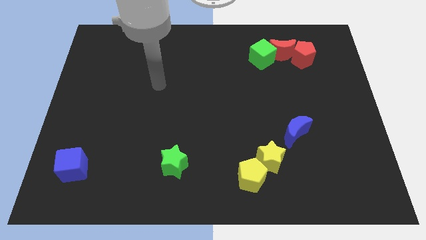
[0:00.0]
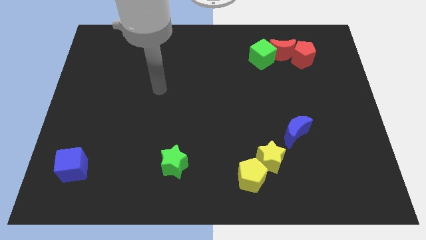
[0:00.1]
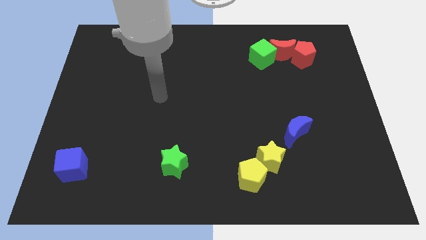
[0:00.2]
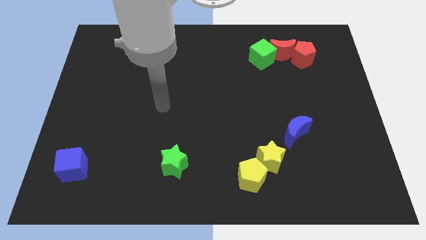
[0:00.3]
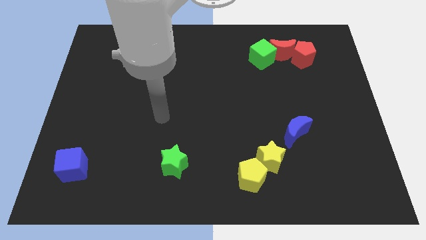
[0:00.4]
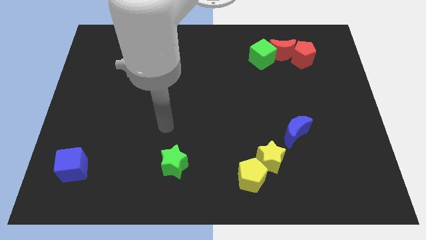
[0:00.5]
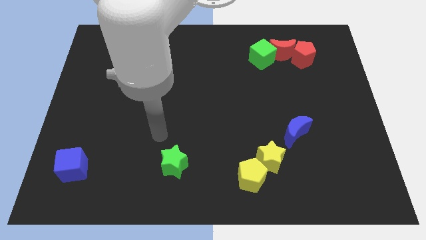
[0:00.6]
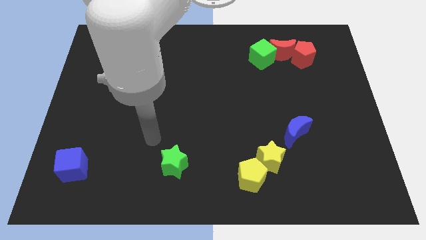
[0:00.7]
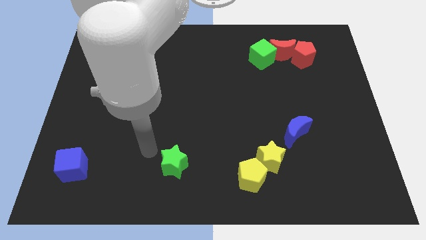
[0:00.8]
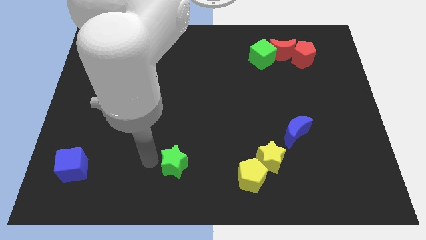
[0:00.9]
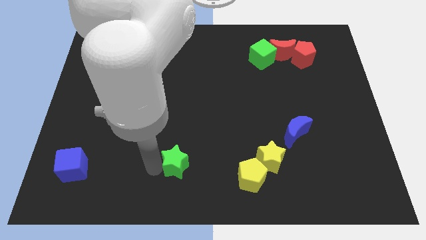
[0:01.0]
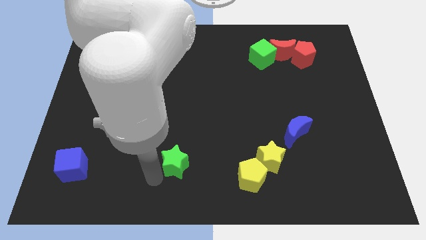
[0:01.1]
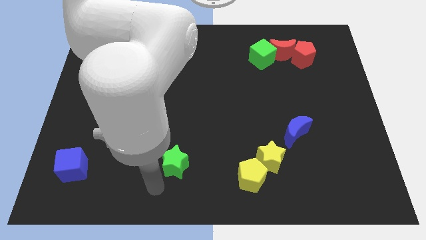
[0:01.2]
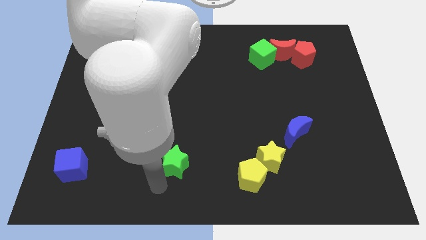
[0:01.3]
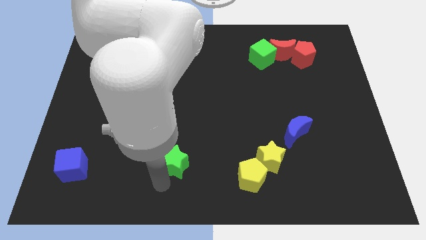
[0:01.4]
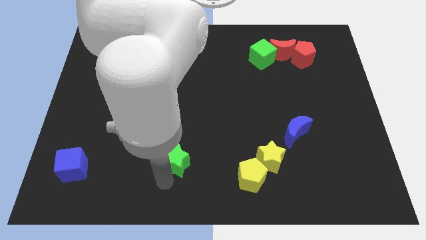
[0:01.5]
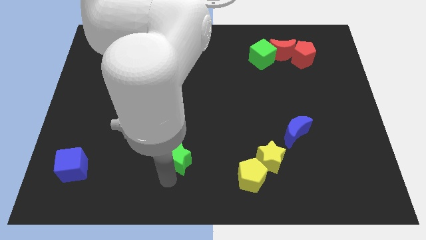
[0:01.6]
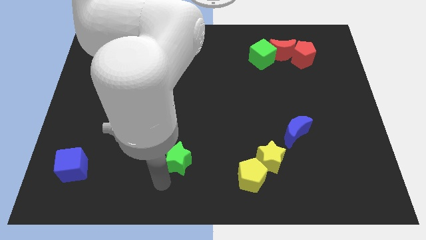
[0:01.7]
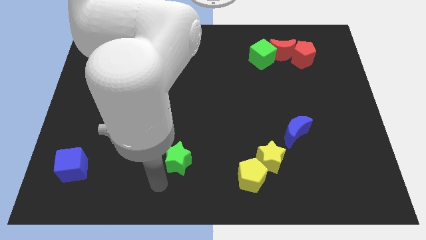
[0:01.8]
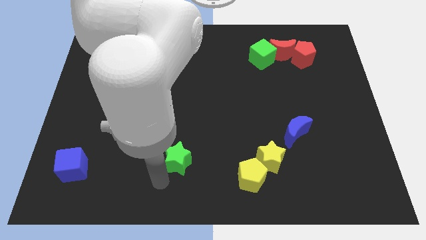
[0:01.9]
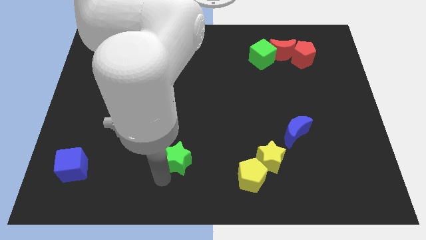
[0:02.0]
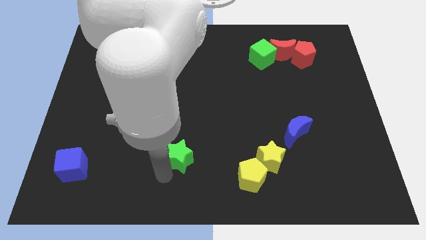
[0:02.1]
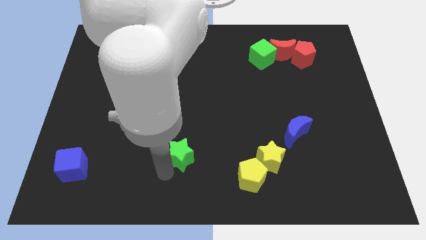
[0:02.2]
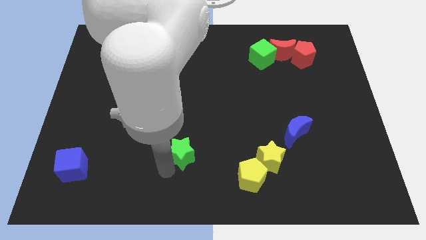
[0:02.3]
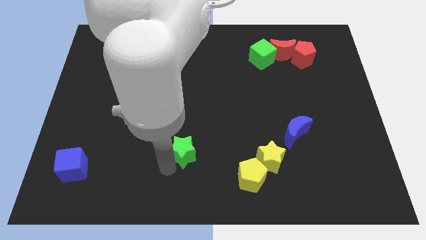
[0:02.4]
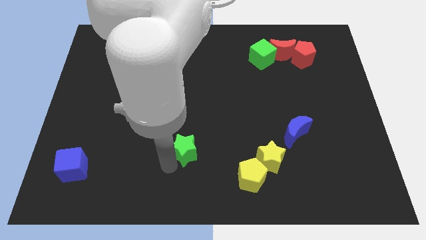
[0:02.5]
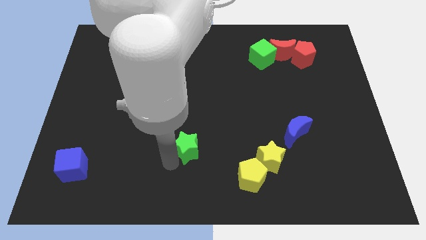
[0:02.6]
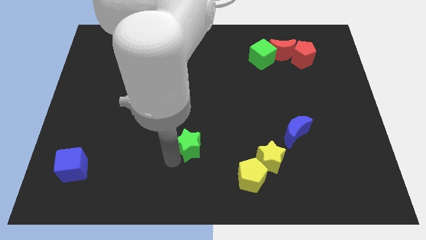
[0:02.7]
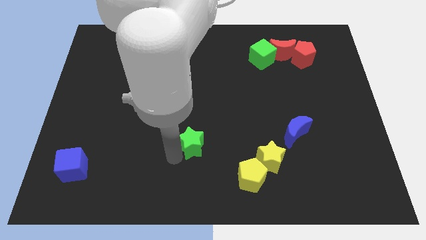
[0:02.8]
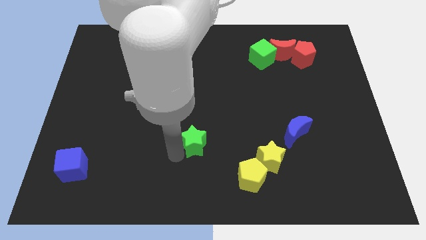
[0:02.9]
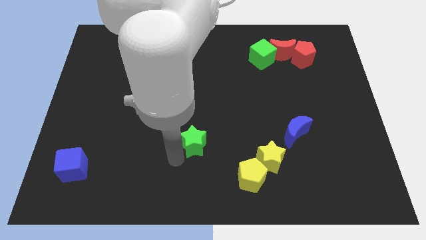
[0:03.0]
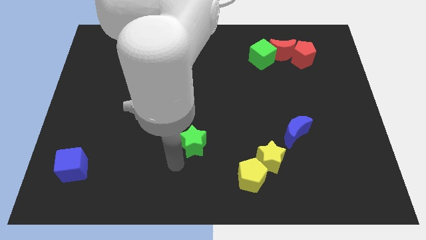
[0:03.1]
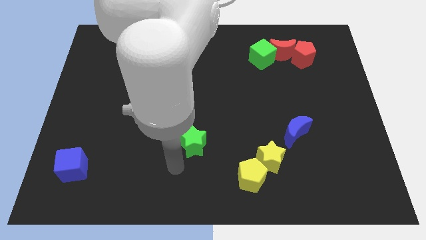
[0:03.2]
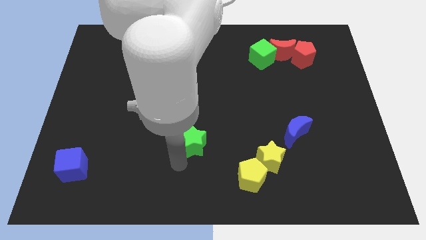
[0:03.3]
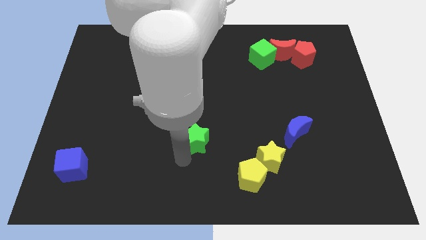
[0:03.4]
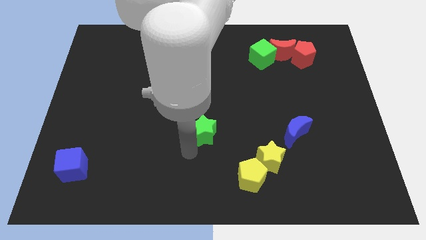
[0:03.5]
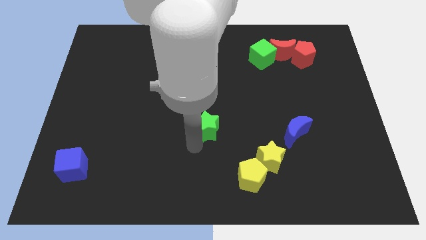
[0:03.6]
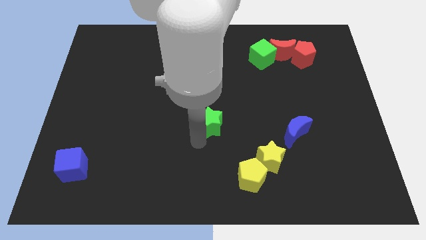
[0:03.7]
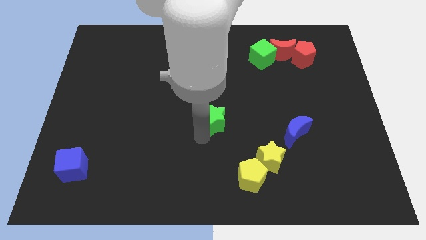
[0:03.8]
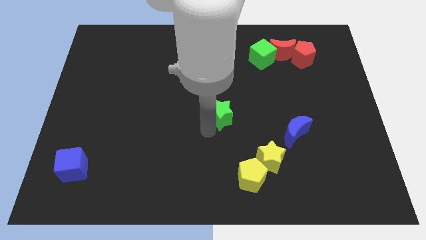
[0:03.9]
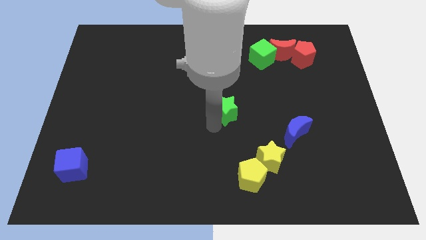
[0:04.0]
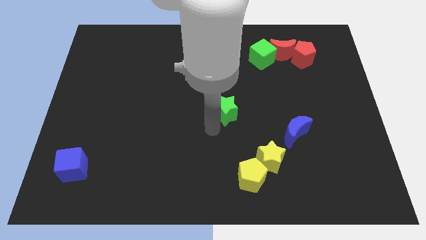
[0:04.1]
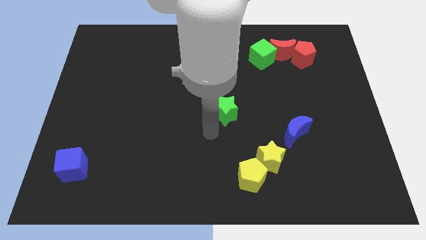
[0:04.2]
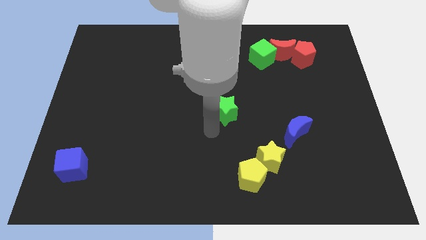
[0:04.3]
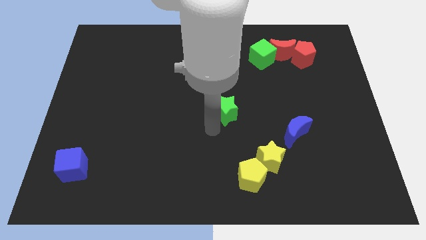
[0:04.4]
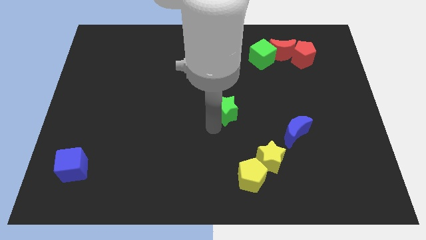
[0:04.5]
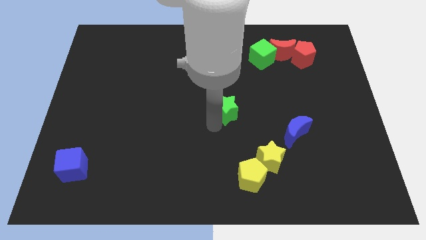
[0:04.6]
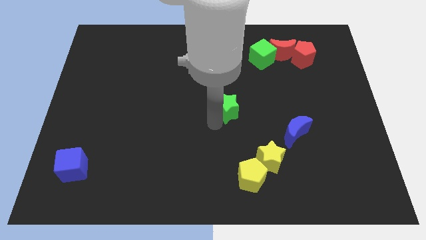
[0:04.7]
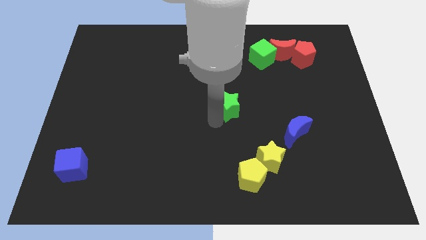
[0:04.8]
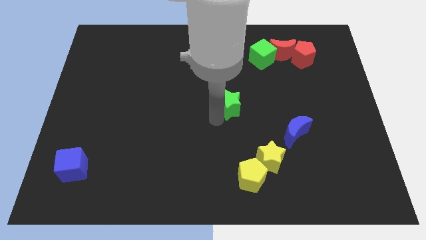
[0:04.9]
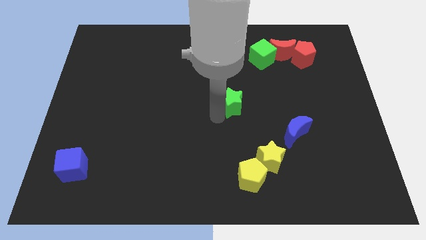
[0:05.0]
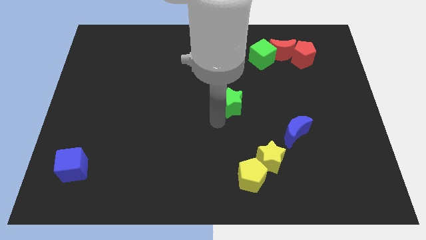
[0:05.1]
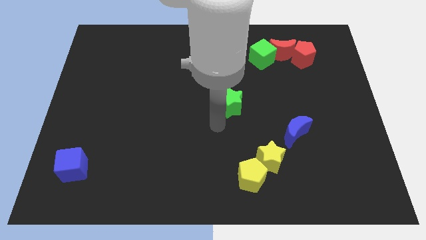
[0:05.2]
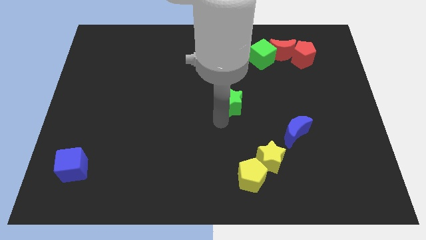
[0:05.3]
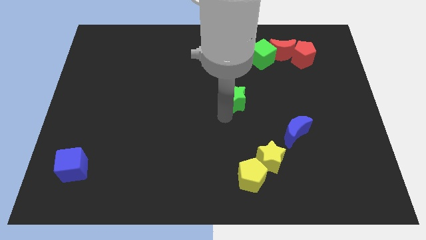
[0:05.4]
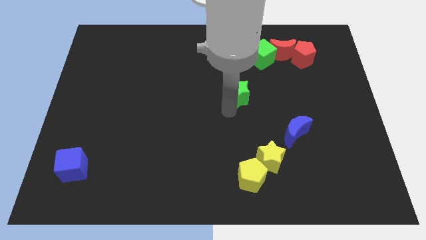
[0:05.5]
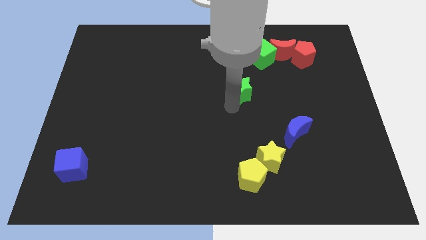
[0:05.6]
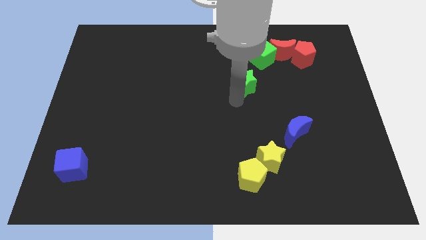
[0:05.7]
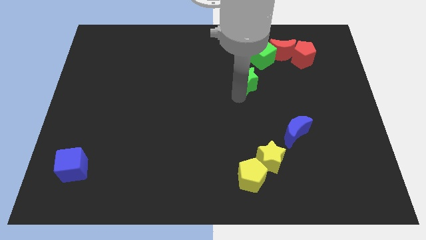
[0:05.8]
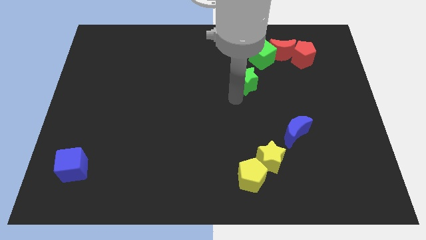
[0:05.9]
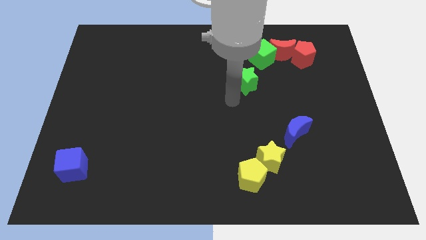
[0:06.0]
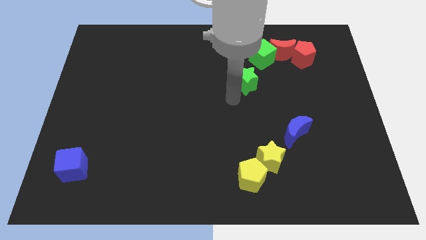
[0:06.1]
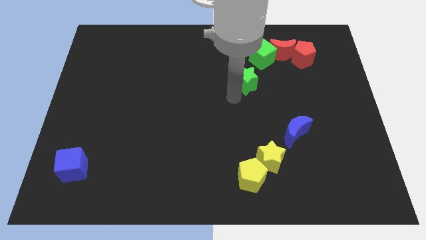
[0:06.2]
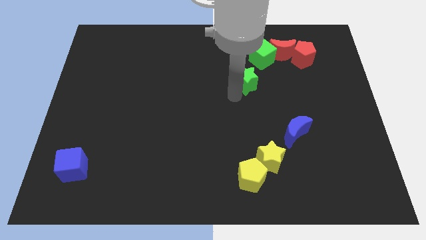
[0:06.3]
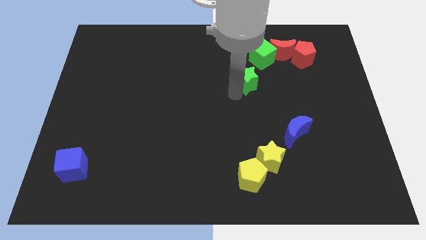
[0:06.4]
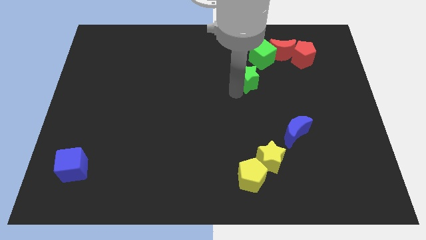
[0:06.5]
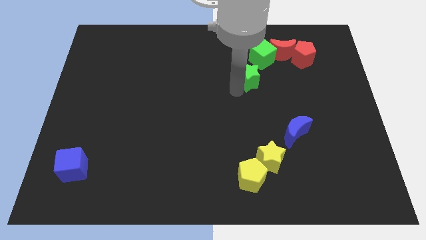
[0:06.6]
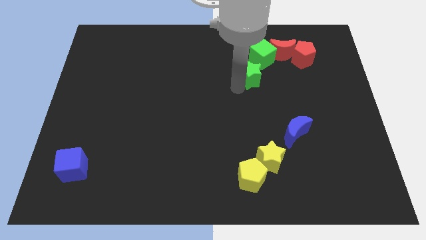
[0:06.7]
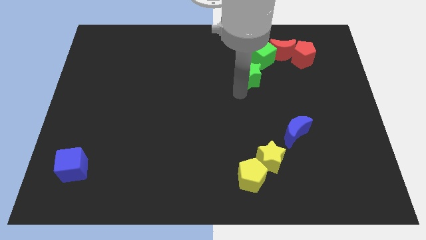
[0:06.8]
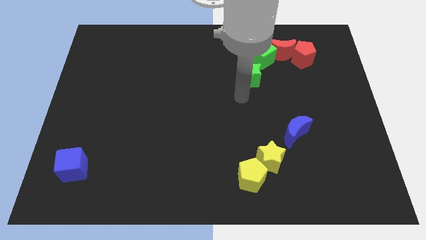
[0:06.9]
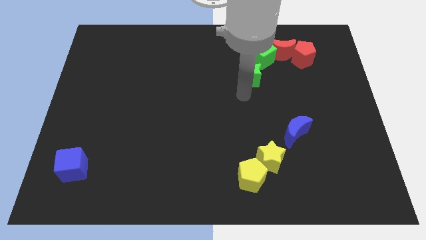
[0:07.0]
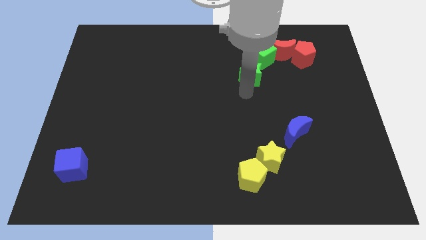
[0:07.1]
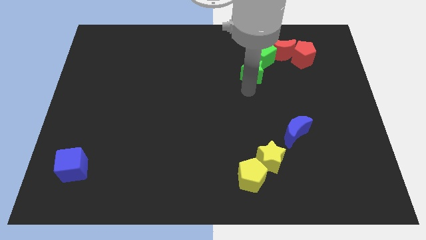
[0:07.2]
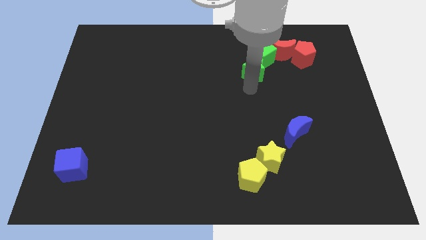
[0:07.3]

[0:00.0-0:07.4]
slide the green star to the green cube
